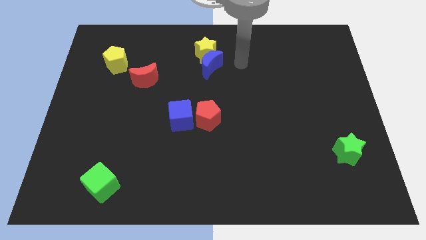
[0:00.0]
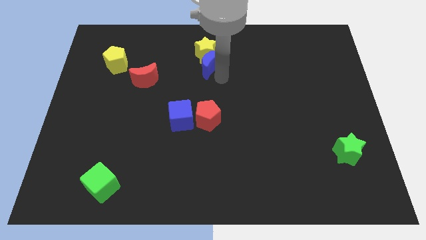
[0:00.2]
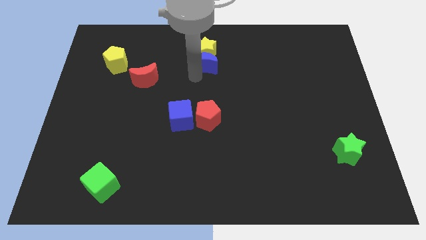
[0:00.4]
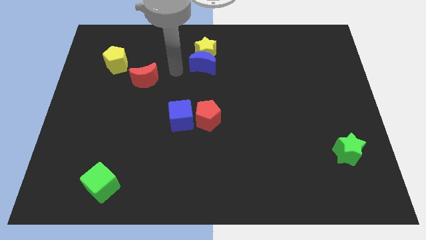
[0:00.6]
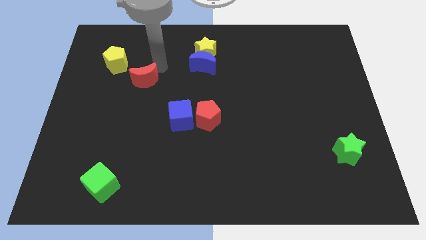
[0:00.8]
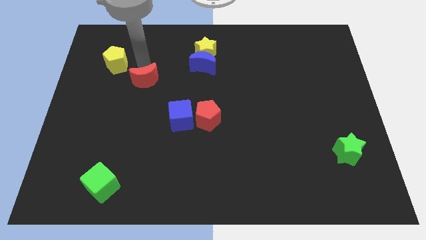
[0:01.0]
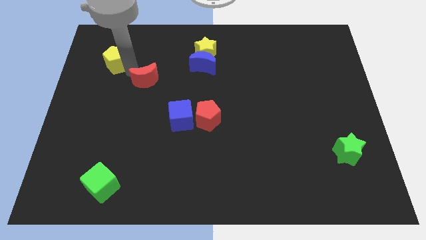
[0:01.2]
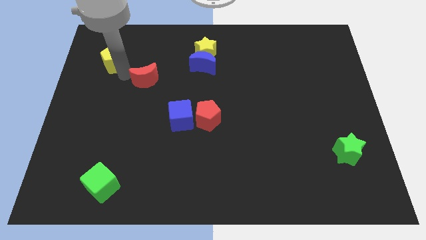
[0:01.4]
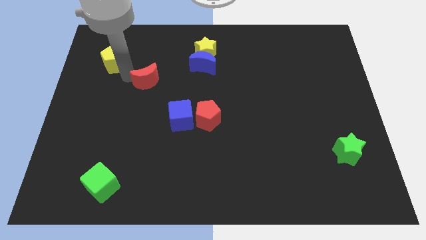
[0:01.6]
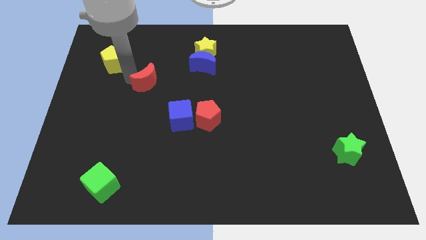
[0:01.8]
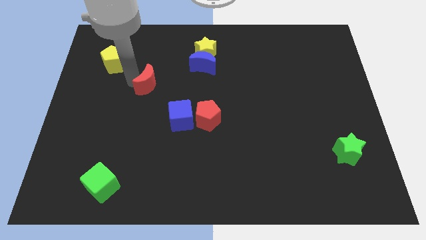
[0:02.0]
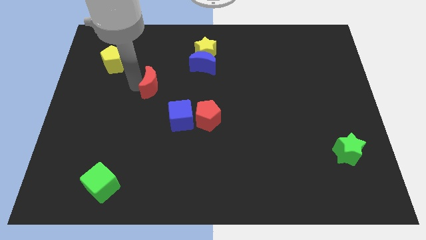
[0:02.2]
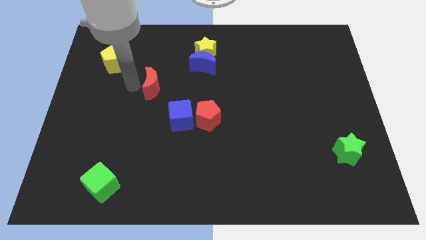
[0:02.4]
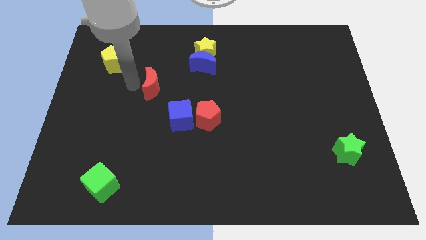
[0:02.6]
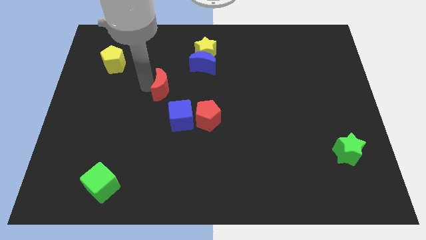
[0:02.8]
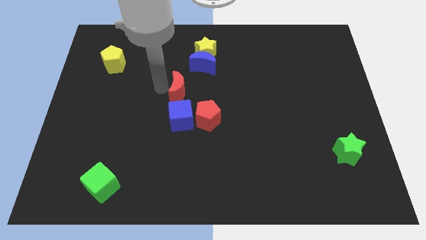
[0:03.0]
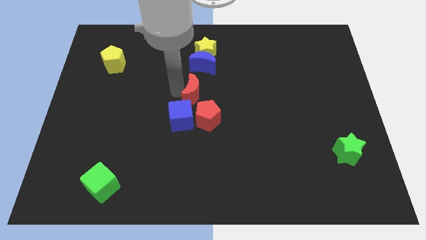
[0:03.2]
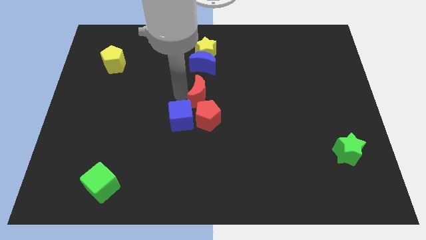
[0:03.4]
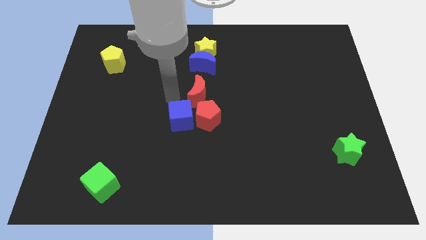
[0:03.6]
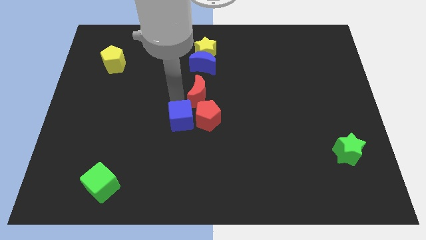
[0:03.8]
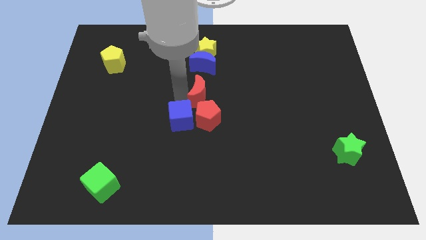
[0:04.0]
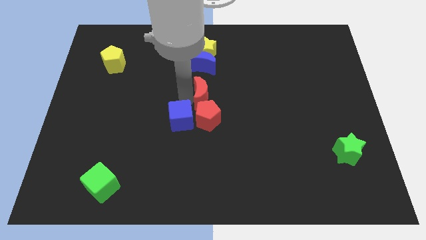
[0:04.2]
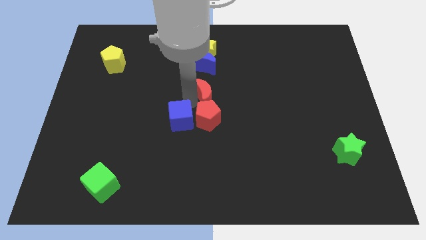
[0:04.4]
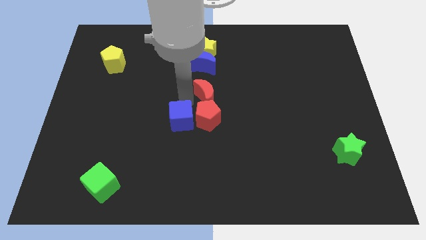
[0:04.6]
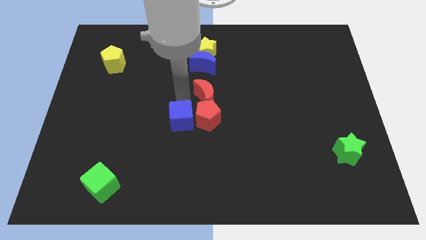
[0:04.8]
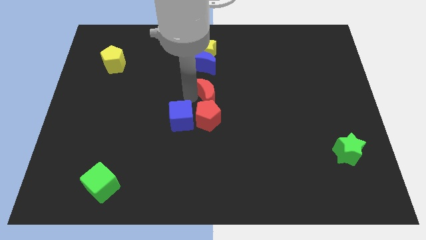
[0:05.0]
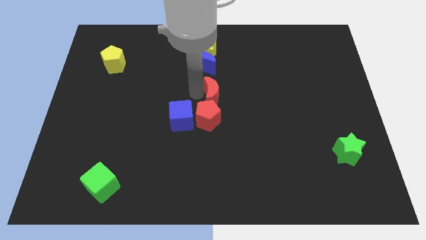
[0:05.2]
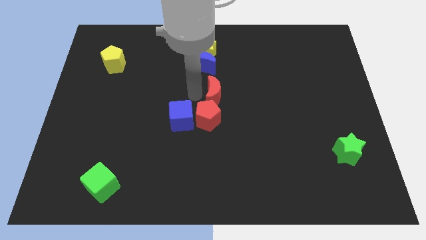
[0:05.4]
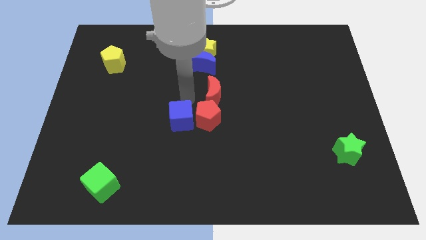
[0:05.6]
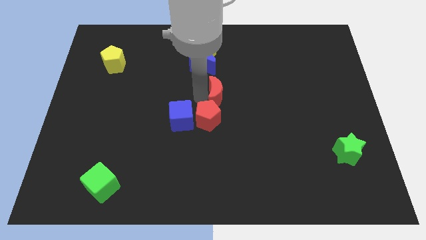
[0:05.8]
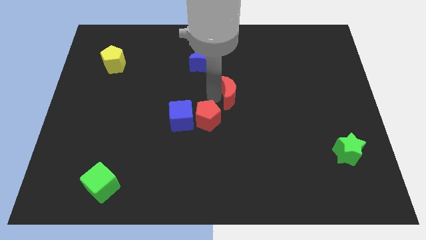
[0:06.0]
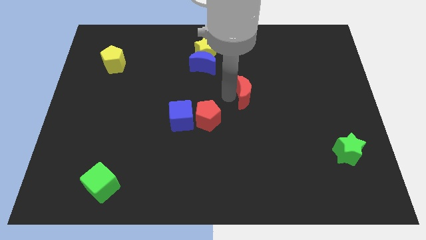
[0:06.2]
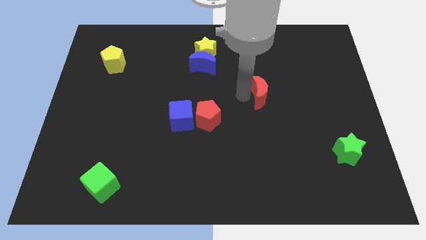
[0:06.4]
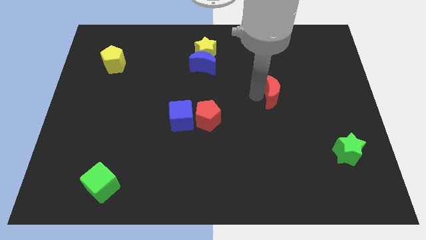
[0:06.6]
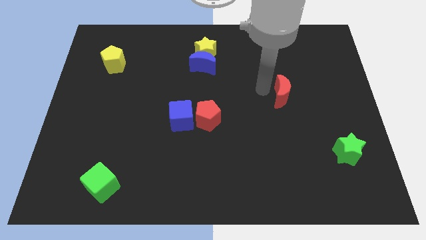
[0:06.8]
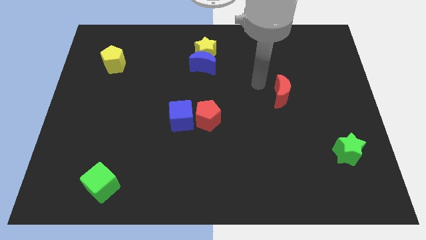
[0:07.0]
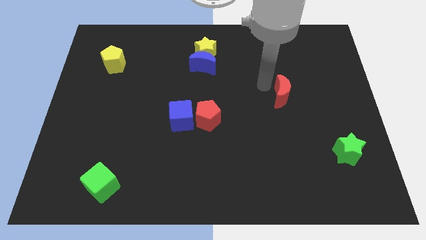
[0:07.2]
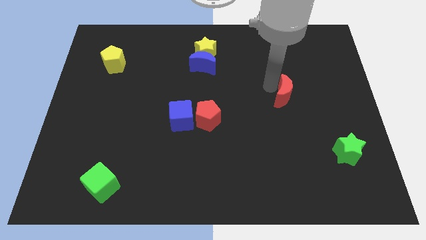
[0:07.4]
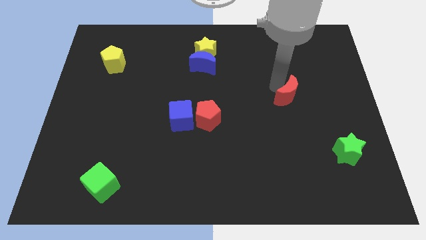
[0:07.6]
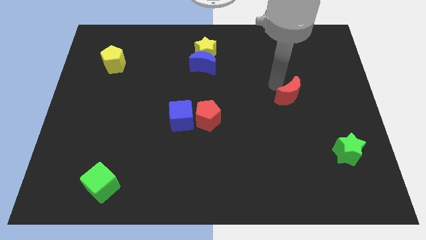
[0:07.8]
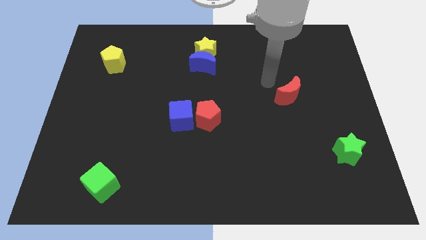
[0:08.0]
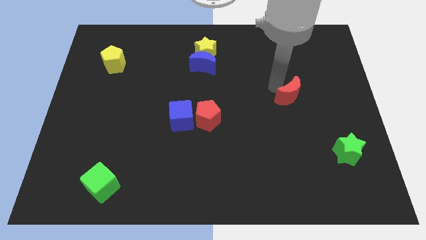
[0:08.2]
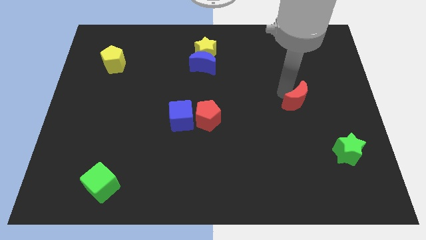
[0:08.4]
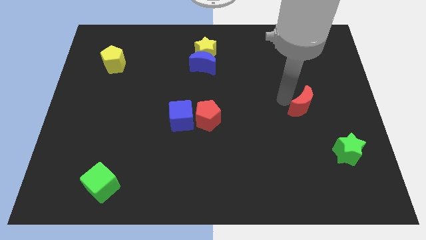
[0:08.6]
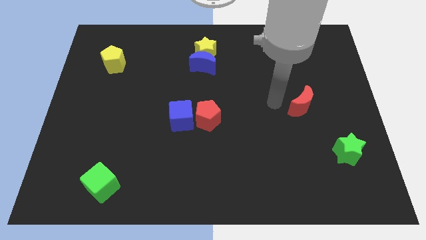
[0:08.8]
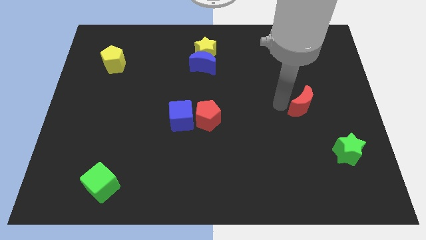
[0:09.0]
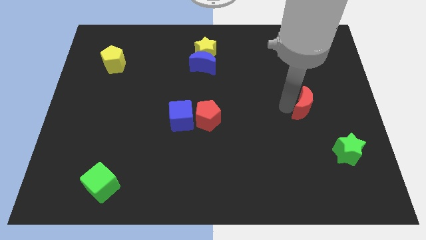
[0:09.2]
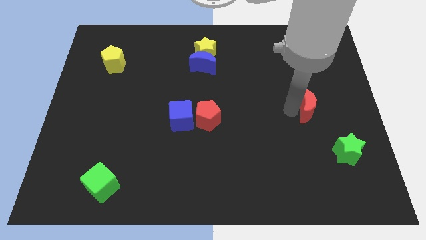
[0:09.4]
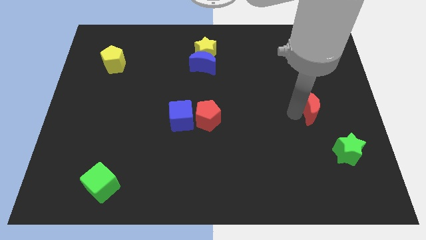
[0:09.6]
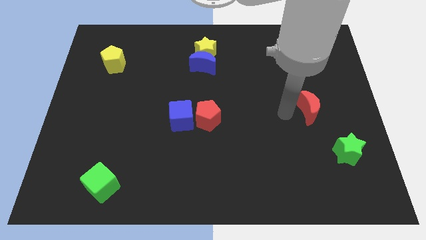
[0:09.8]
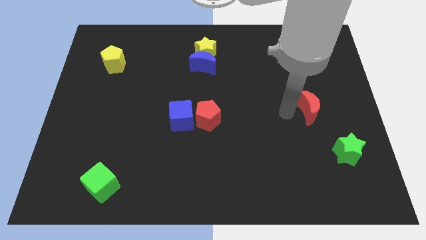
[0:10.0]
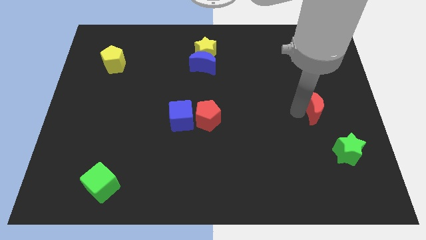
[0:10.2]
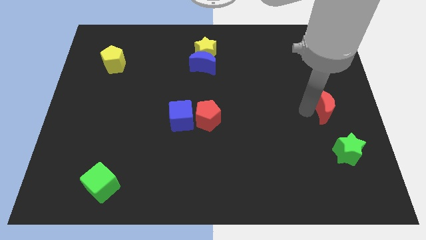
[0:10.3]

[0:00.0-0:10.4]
slide the red moon to the right side of the board

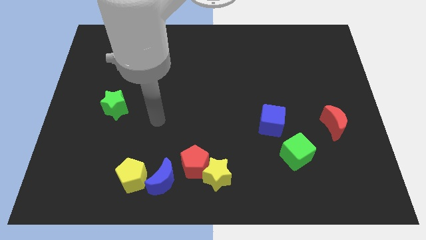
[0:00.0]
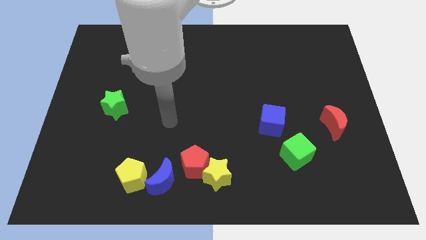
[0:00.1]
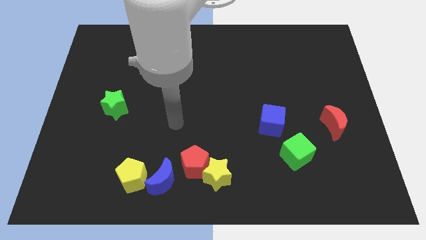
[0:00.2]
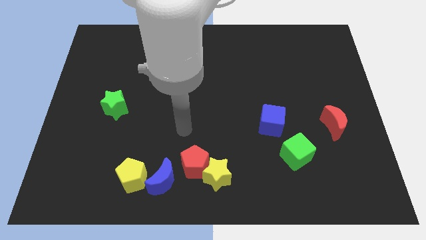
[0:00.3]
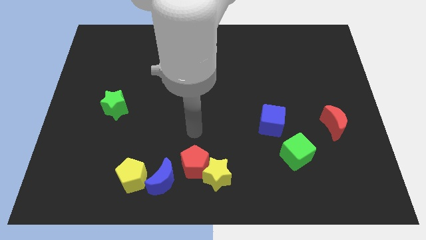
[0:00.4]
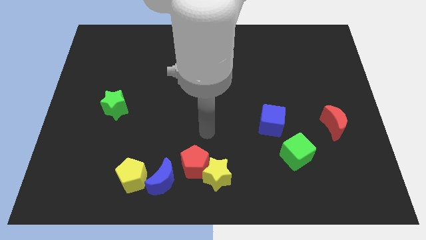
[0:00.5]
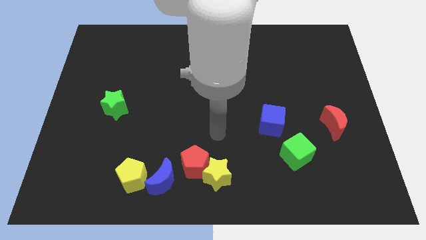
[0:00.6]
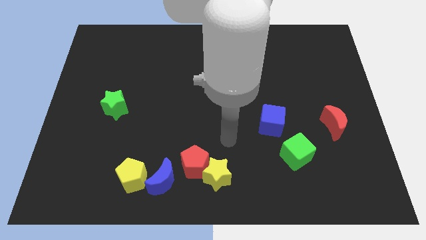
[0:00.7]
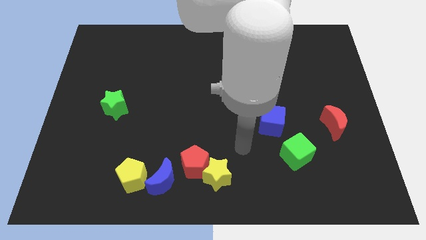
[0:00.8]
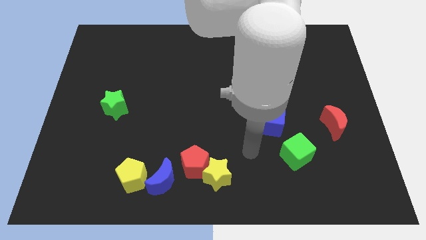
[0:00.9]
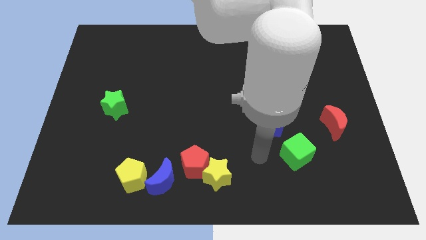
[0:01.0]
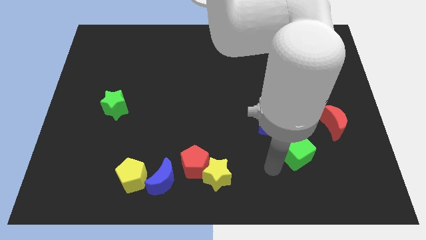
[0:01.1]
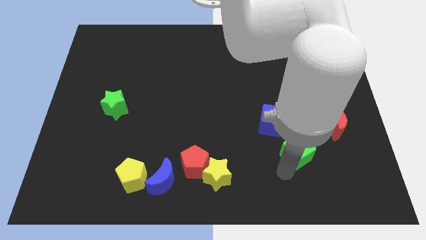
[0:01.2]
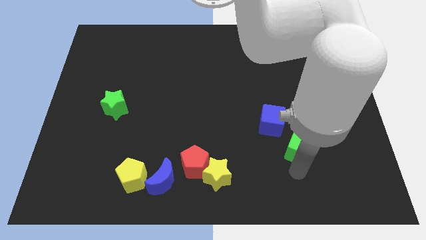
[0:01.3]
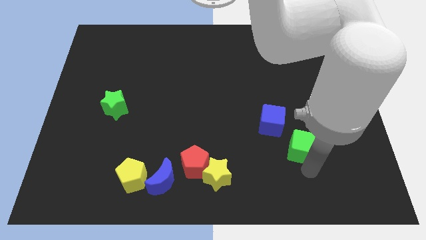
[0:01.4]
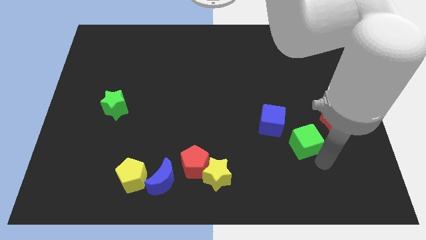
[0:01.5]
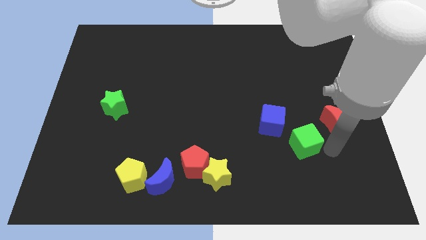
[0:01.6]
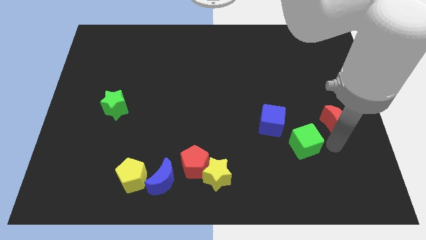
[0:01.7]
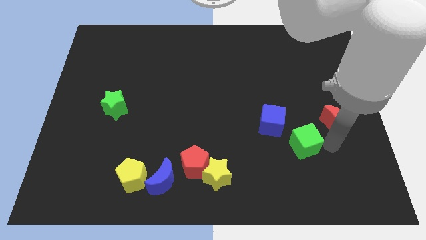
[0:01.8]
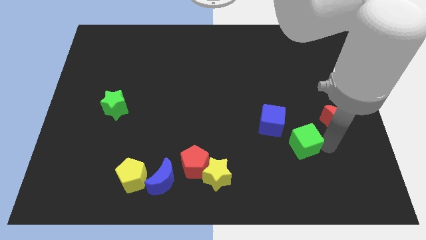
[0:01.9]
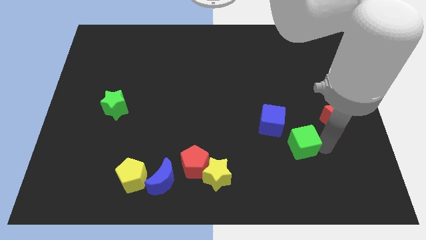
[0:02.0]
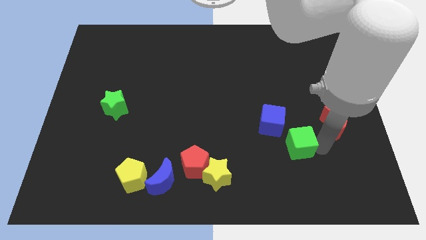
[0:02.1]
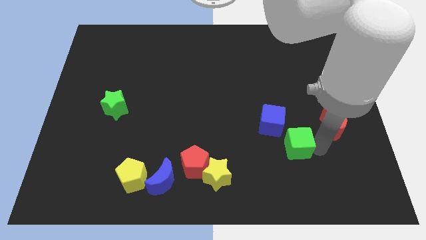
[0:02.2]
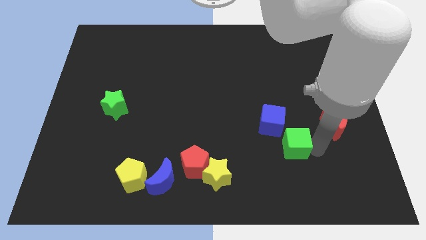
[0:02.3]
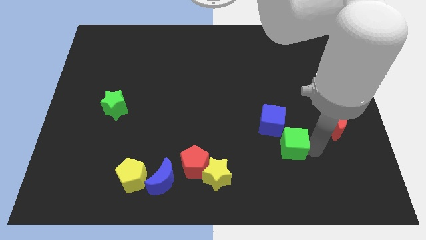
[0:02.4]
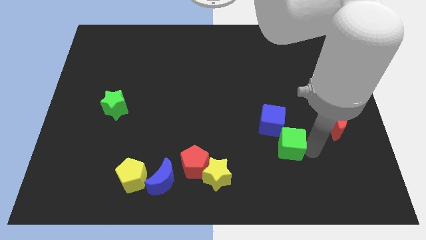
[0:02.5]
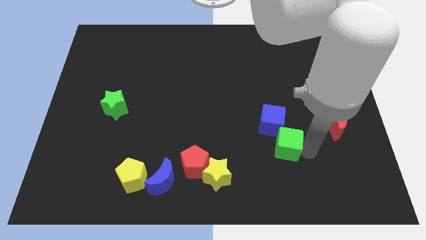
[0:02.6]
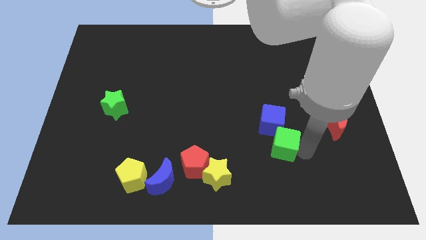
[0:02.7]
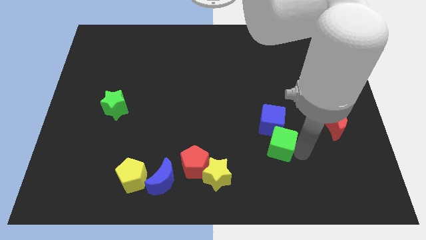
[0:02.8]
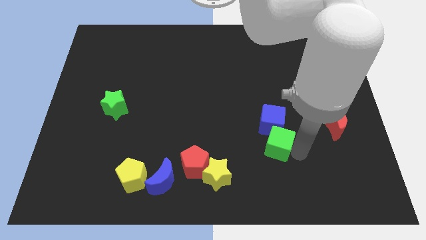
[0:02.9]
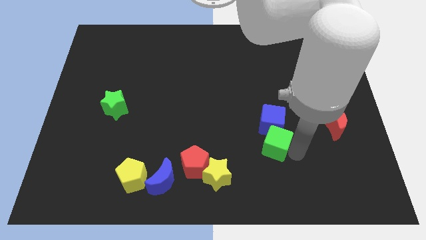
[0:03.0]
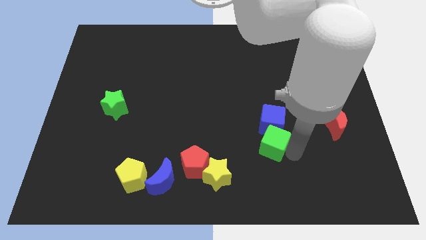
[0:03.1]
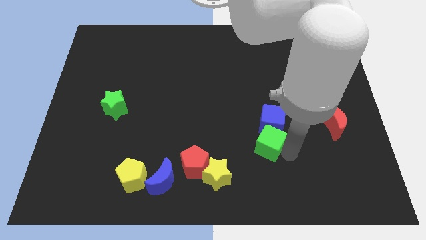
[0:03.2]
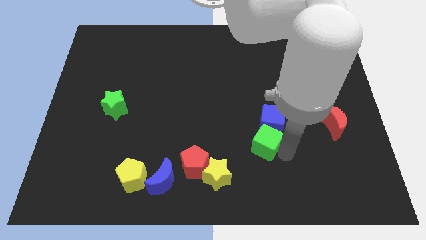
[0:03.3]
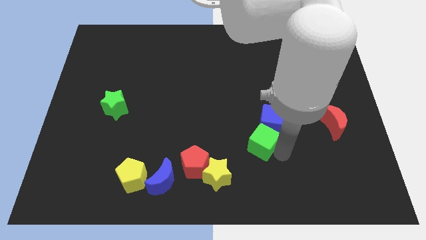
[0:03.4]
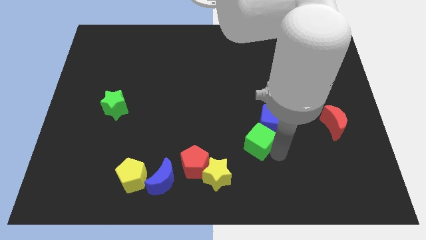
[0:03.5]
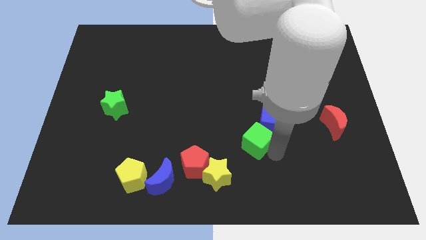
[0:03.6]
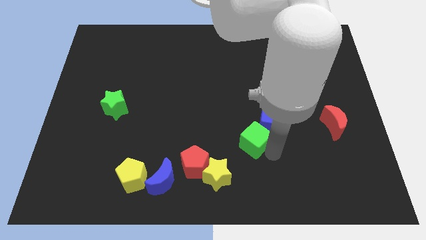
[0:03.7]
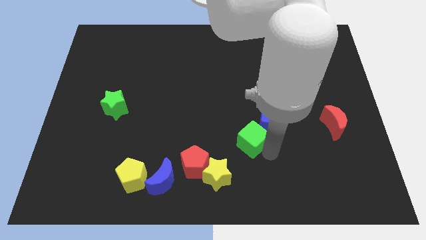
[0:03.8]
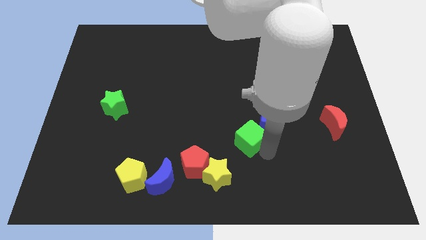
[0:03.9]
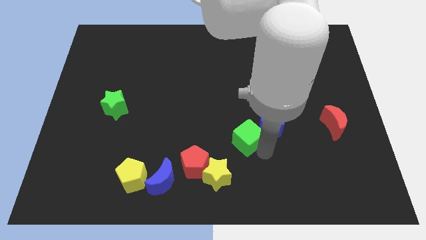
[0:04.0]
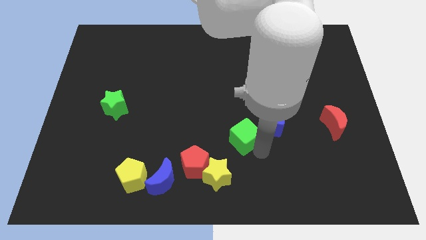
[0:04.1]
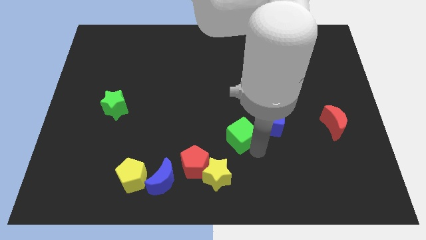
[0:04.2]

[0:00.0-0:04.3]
move the green cube to the center
